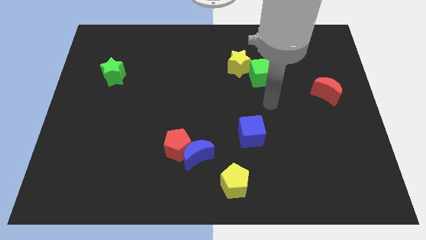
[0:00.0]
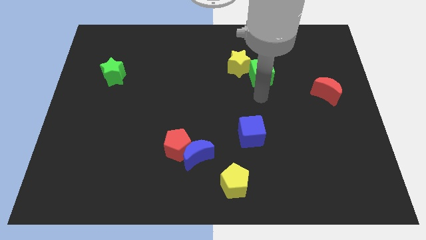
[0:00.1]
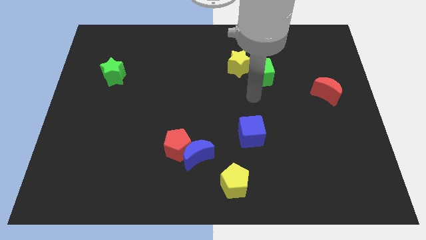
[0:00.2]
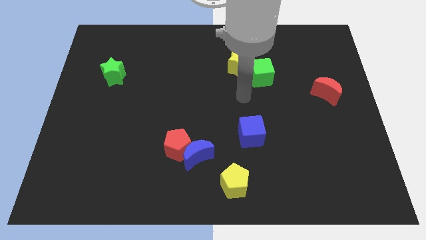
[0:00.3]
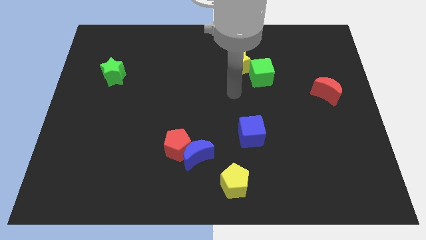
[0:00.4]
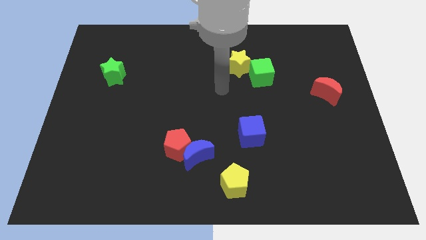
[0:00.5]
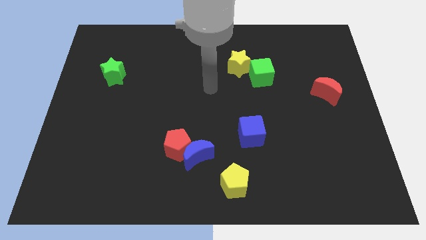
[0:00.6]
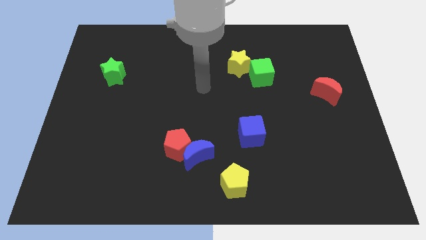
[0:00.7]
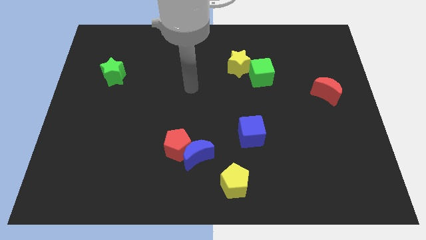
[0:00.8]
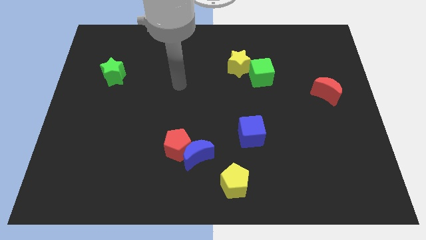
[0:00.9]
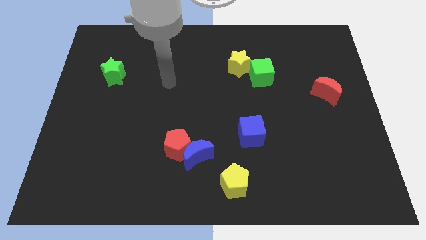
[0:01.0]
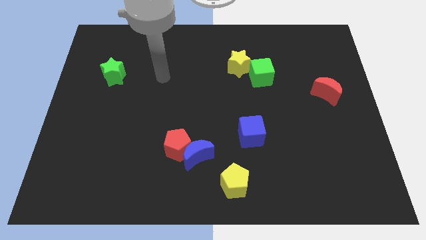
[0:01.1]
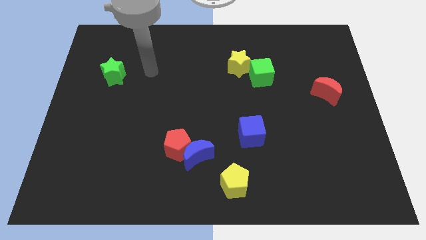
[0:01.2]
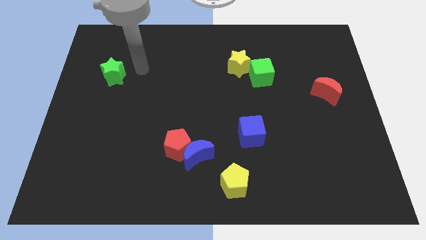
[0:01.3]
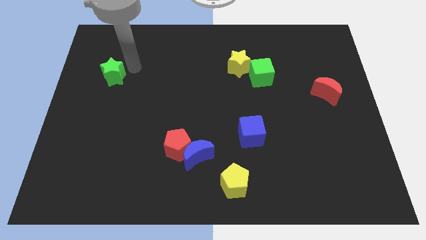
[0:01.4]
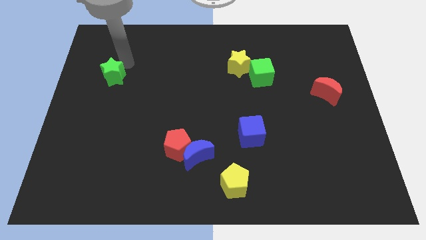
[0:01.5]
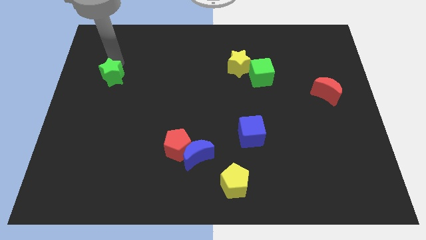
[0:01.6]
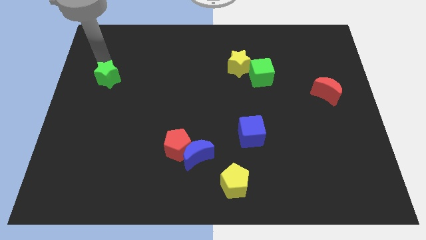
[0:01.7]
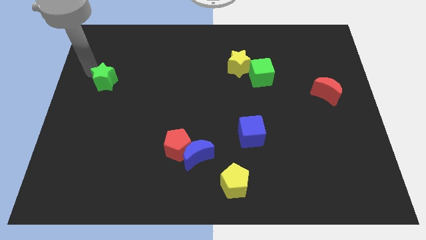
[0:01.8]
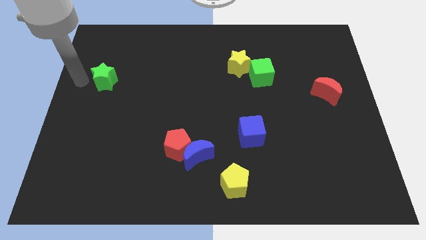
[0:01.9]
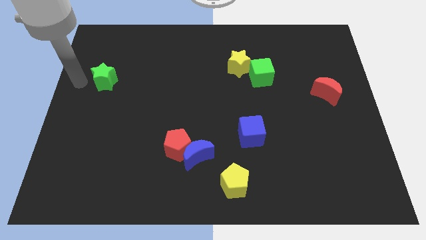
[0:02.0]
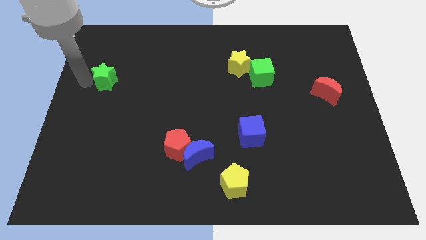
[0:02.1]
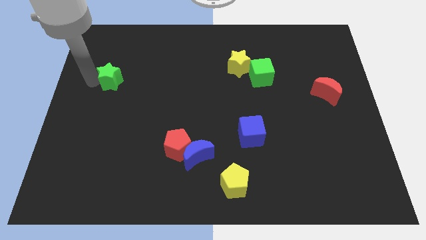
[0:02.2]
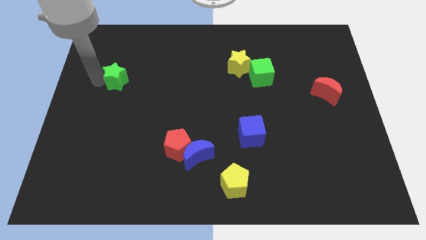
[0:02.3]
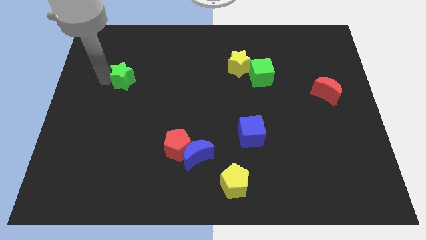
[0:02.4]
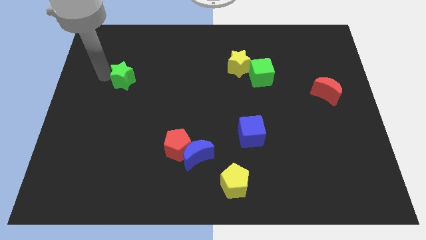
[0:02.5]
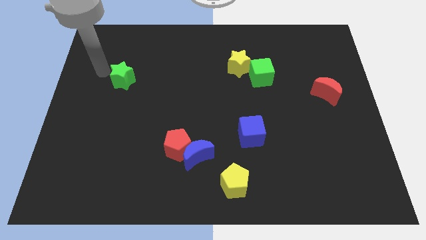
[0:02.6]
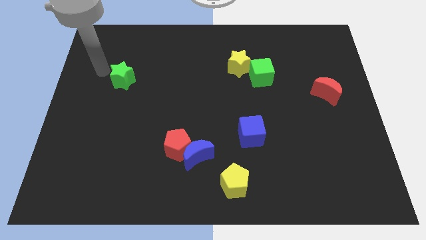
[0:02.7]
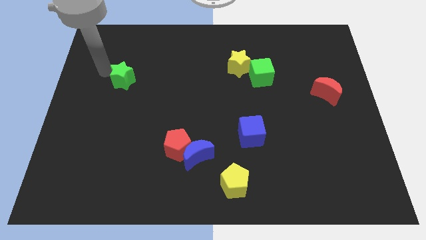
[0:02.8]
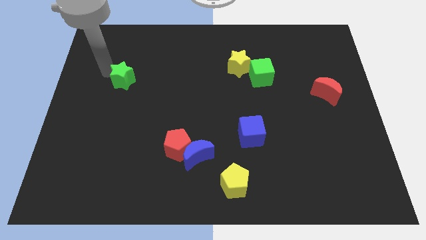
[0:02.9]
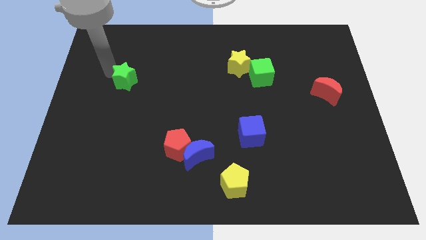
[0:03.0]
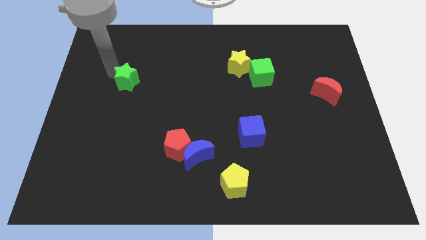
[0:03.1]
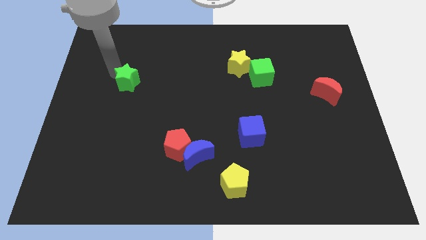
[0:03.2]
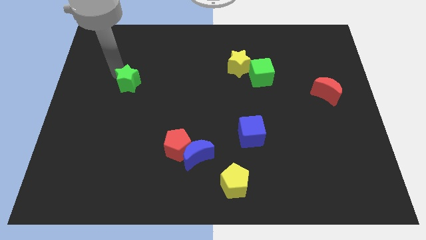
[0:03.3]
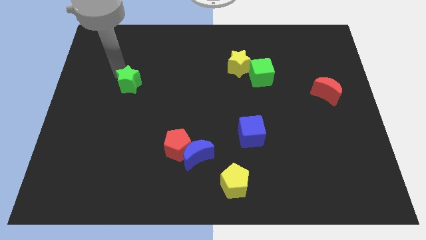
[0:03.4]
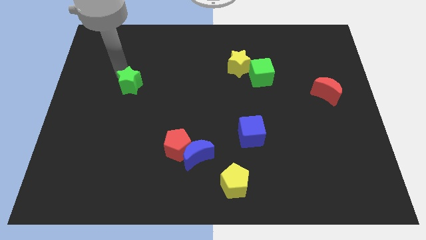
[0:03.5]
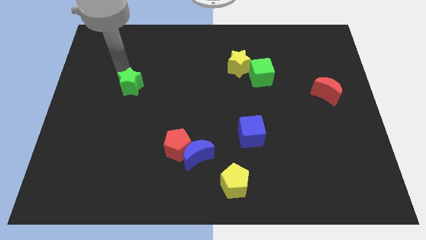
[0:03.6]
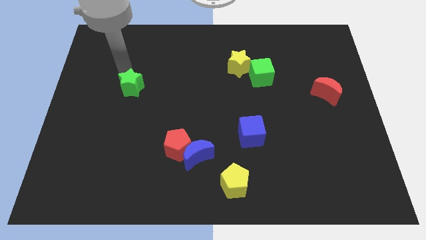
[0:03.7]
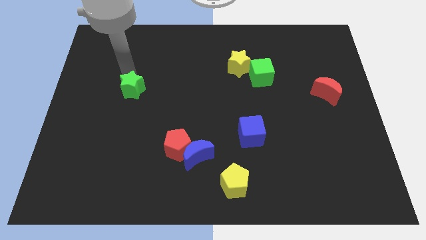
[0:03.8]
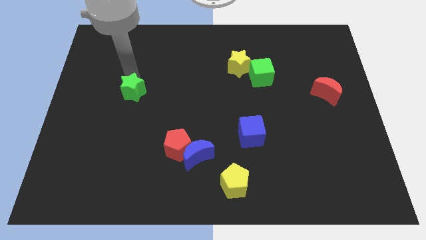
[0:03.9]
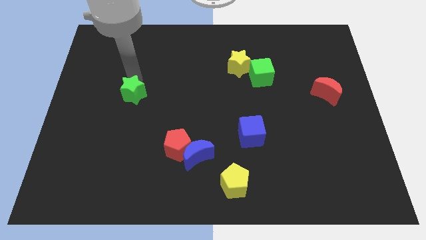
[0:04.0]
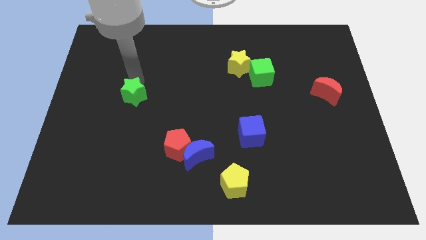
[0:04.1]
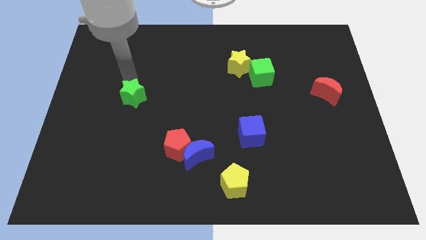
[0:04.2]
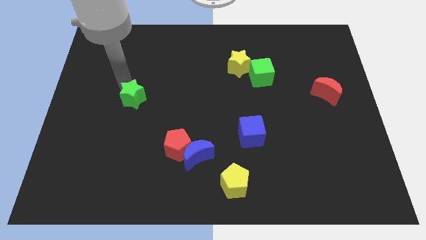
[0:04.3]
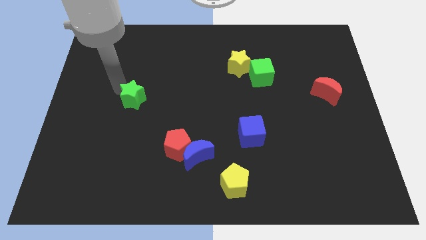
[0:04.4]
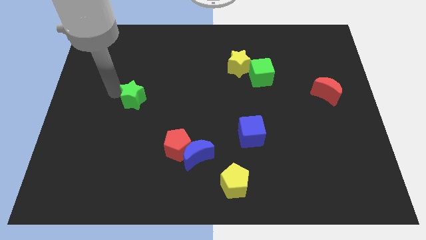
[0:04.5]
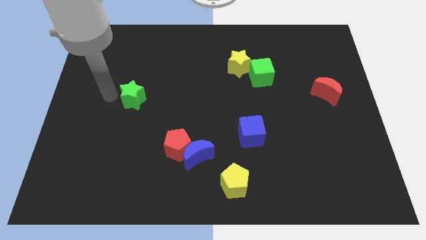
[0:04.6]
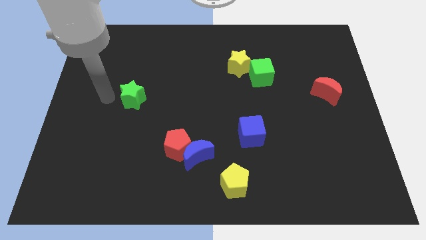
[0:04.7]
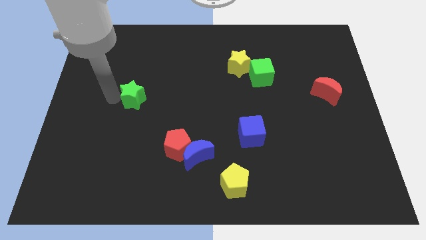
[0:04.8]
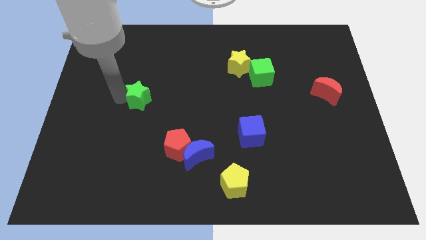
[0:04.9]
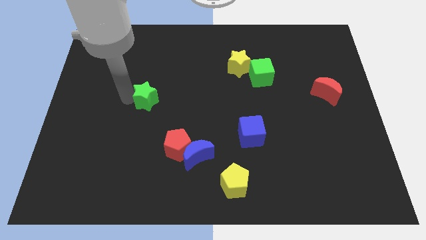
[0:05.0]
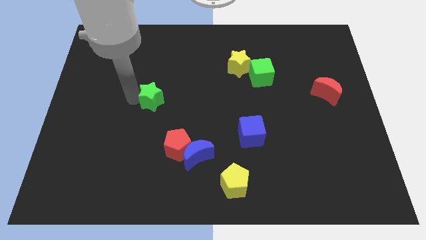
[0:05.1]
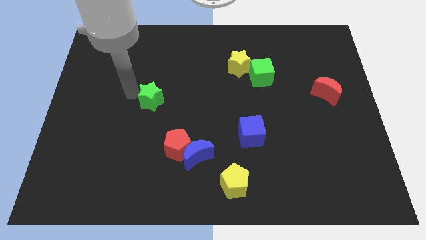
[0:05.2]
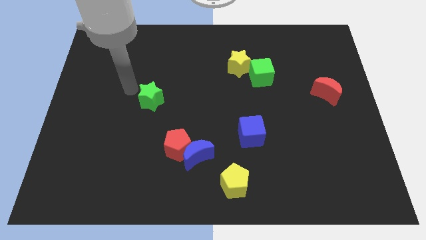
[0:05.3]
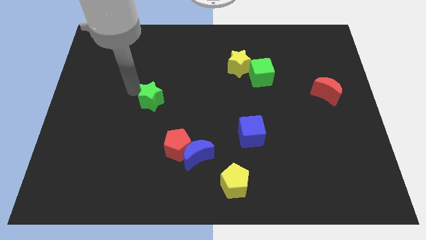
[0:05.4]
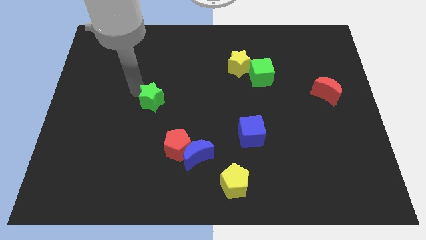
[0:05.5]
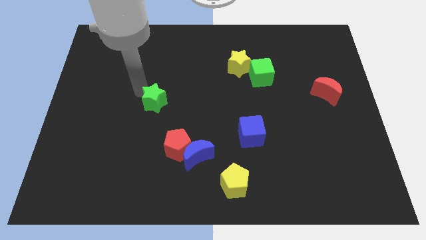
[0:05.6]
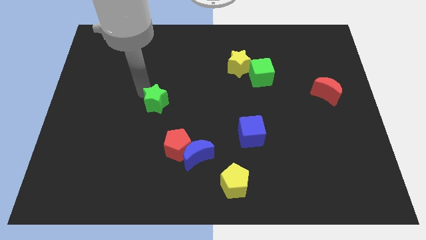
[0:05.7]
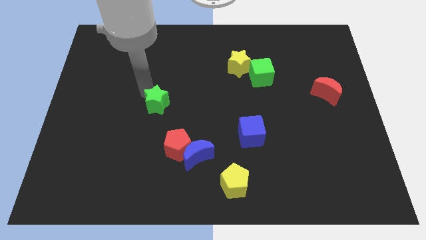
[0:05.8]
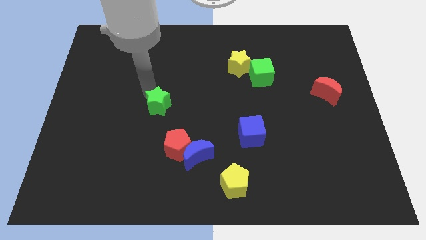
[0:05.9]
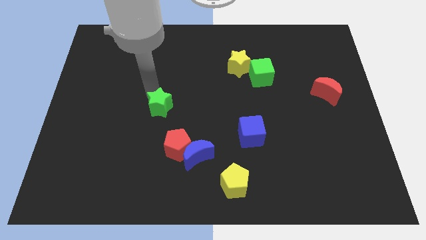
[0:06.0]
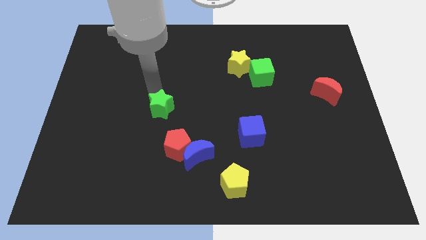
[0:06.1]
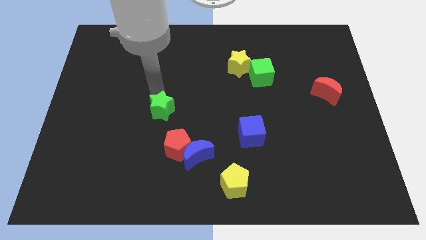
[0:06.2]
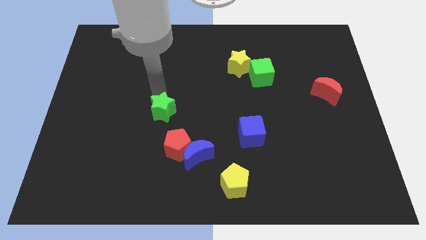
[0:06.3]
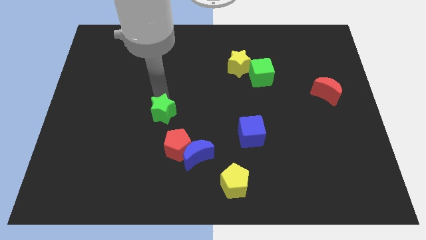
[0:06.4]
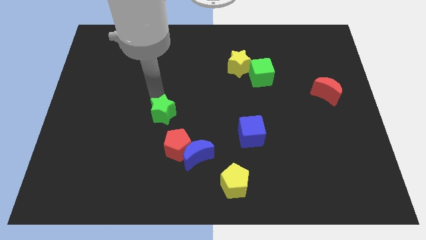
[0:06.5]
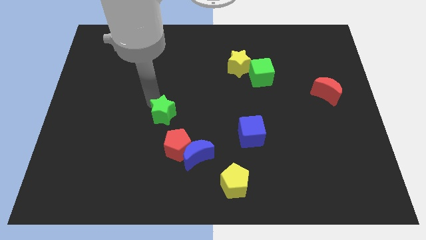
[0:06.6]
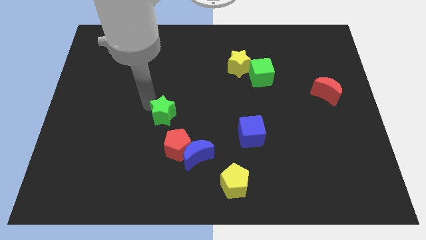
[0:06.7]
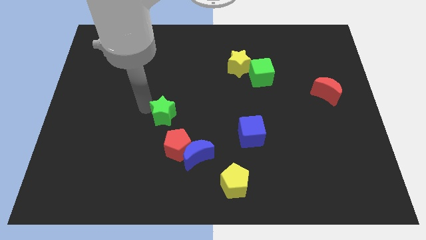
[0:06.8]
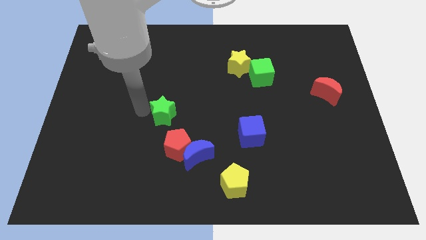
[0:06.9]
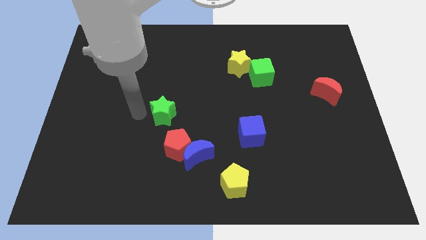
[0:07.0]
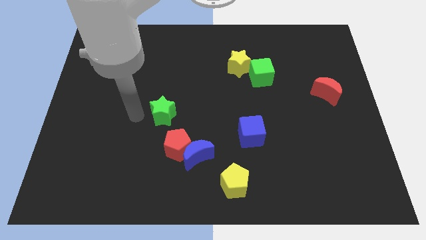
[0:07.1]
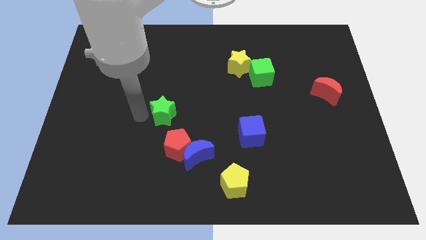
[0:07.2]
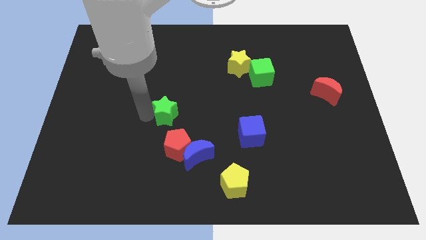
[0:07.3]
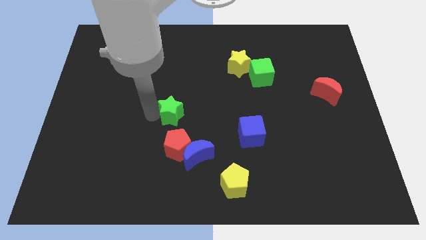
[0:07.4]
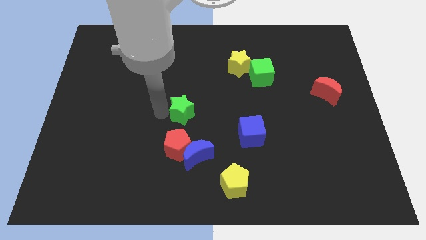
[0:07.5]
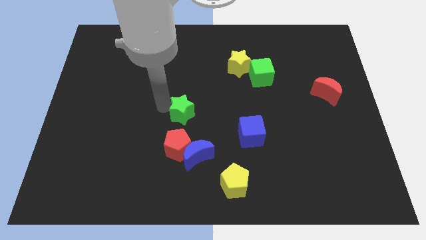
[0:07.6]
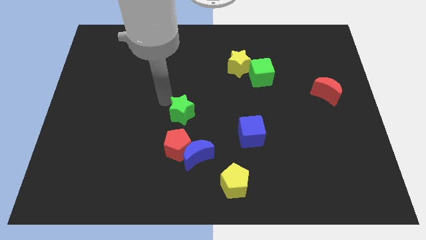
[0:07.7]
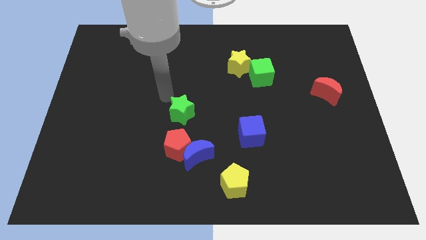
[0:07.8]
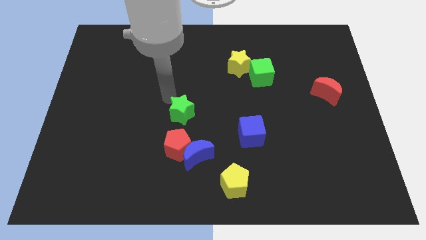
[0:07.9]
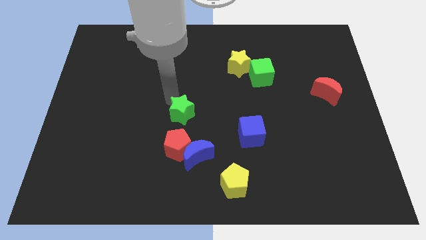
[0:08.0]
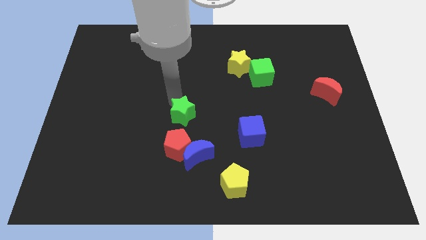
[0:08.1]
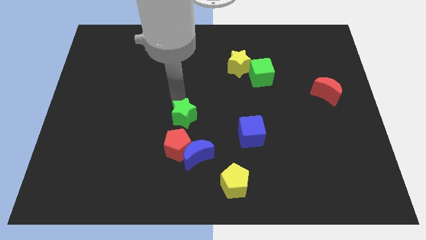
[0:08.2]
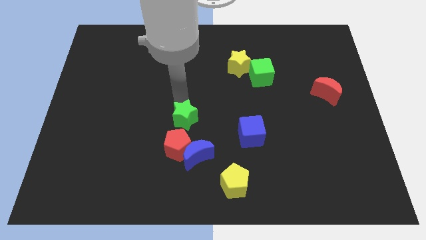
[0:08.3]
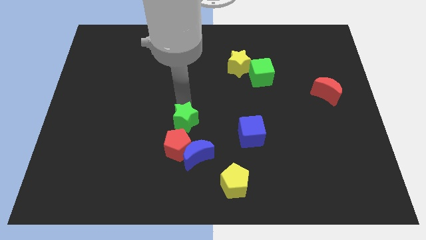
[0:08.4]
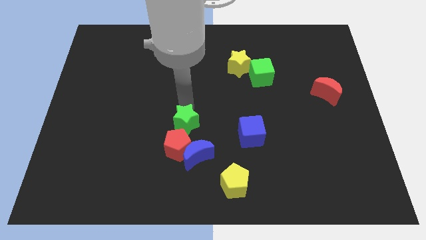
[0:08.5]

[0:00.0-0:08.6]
move the green star just left of the blue cube
